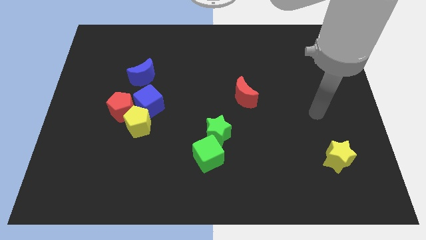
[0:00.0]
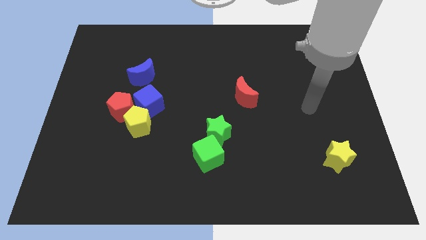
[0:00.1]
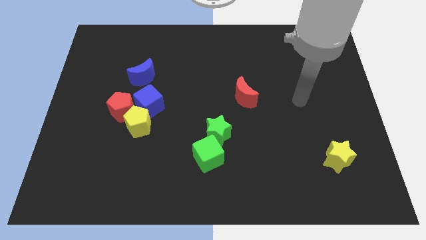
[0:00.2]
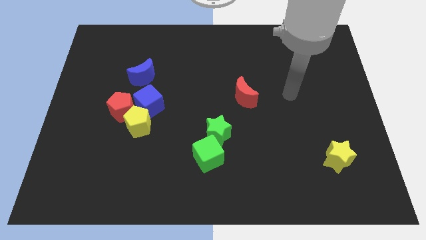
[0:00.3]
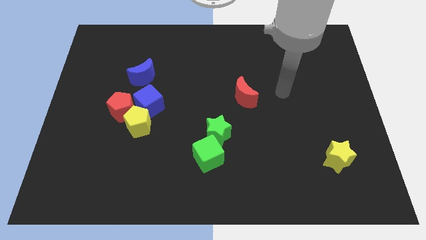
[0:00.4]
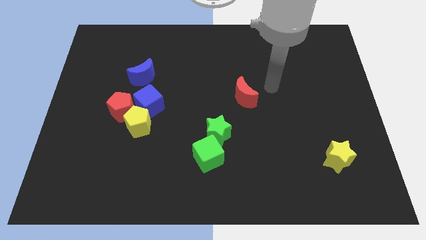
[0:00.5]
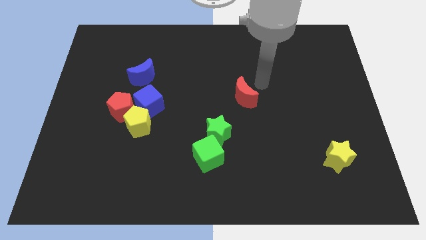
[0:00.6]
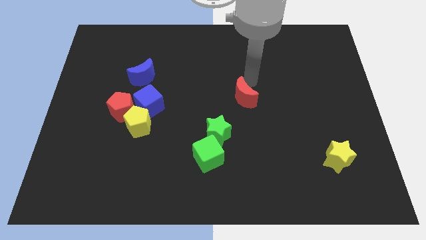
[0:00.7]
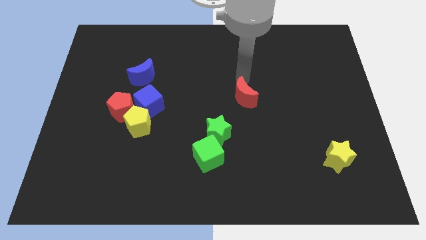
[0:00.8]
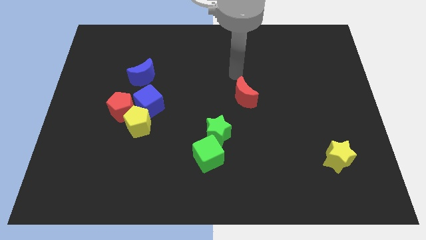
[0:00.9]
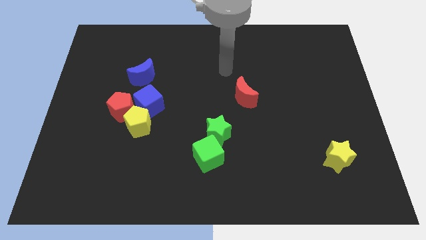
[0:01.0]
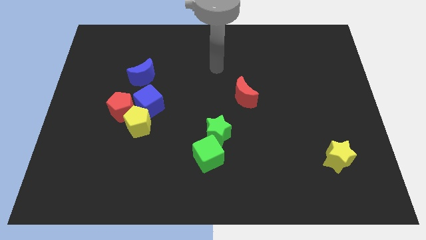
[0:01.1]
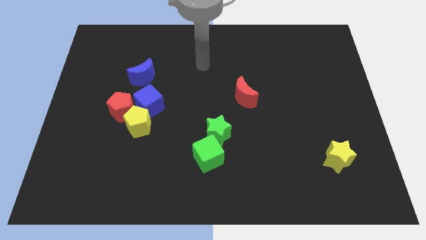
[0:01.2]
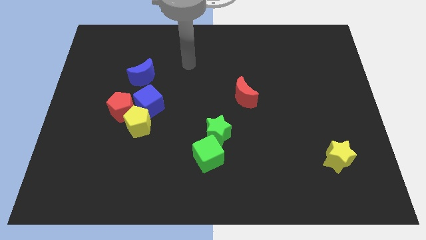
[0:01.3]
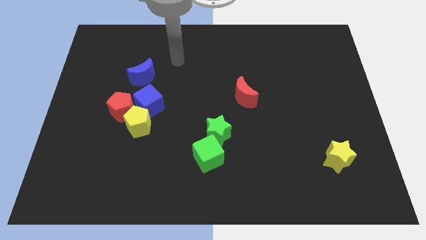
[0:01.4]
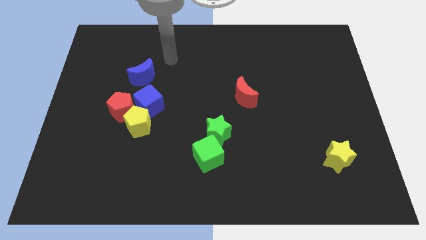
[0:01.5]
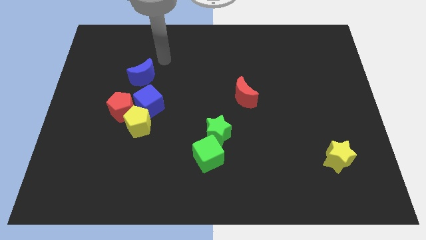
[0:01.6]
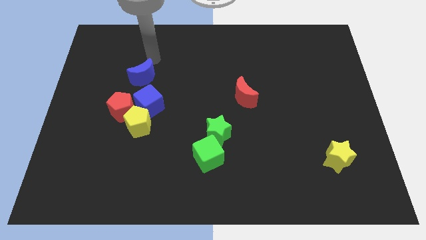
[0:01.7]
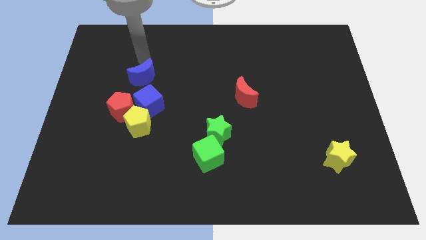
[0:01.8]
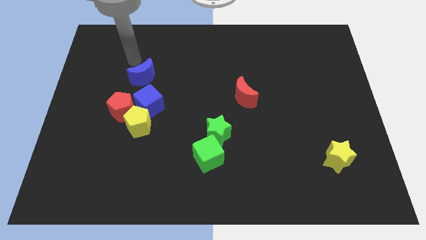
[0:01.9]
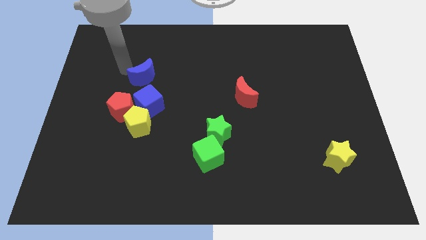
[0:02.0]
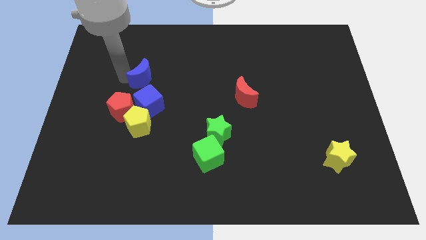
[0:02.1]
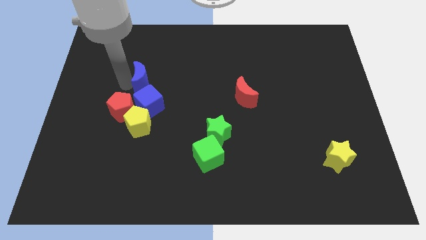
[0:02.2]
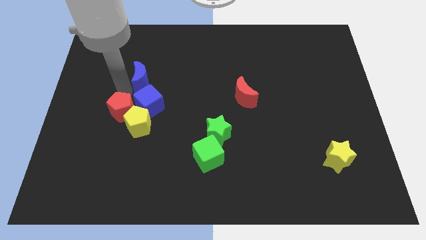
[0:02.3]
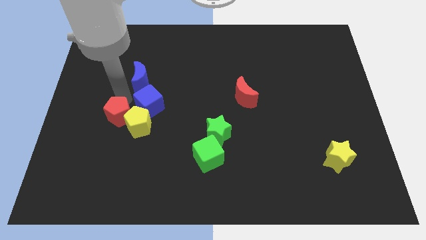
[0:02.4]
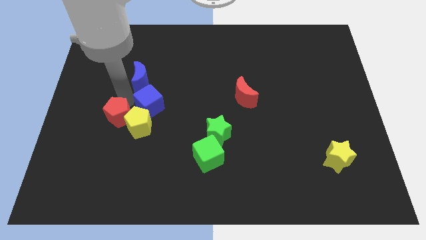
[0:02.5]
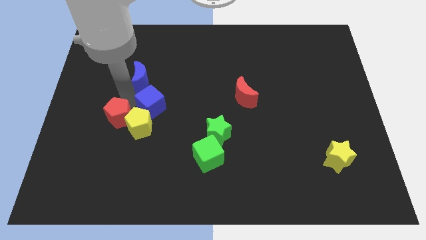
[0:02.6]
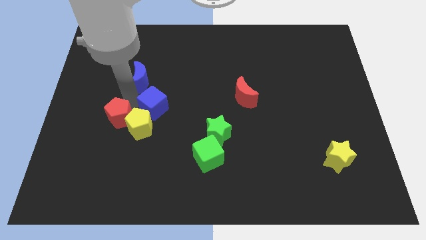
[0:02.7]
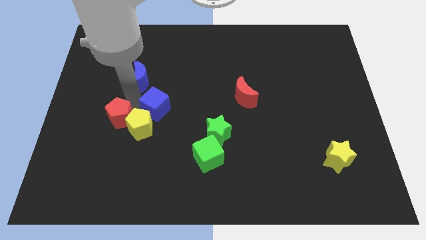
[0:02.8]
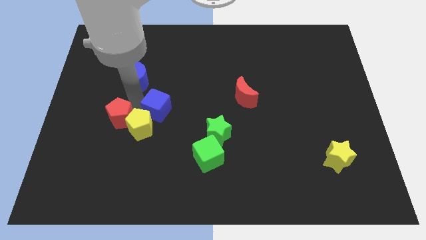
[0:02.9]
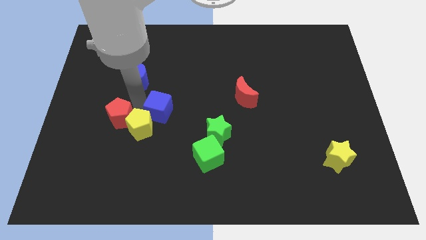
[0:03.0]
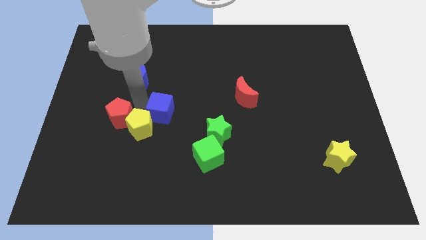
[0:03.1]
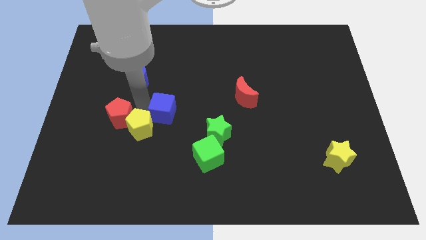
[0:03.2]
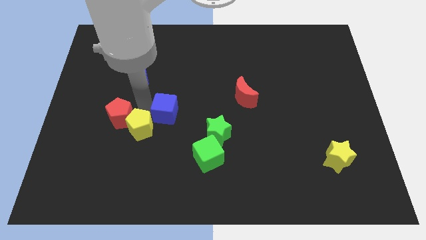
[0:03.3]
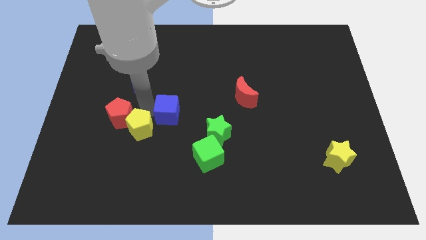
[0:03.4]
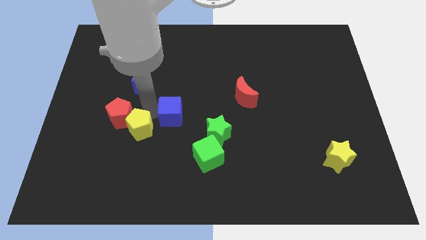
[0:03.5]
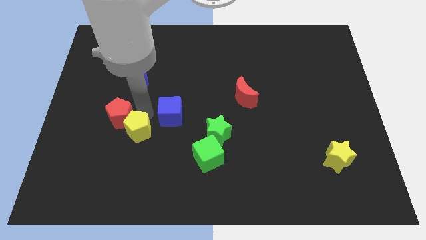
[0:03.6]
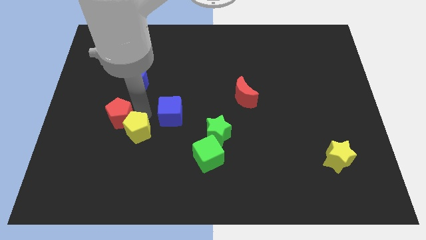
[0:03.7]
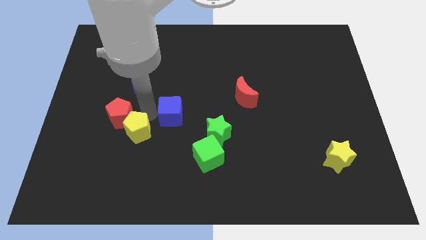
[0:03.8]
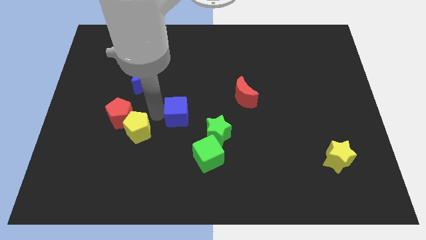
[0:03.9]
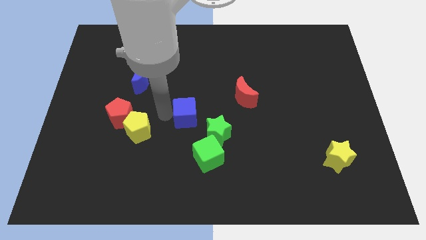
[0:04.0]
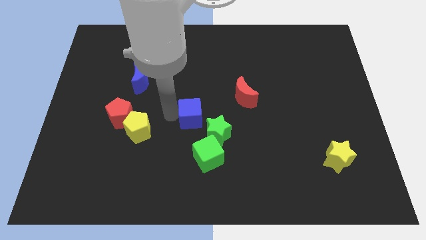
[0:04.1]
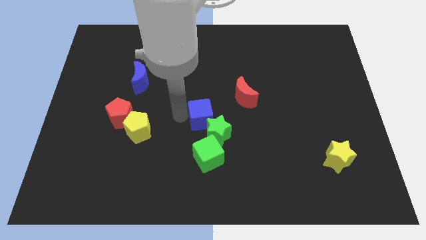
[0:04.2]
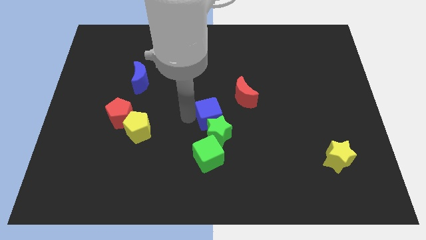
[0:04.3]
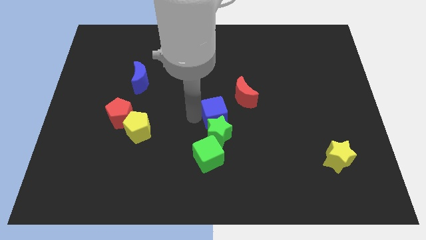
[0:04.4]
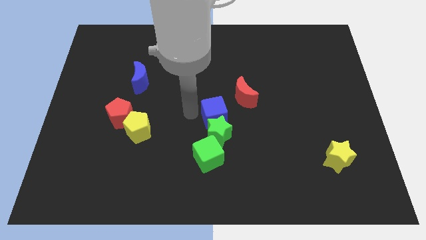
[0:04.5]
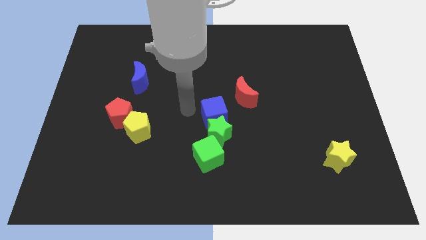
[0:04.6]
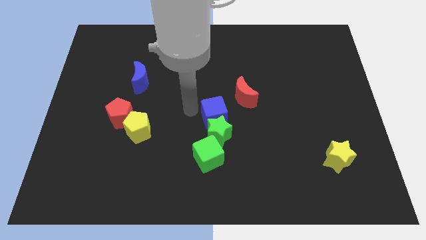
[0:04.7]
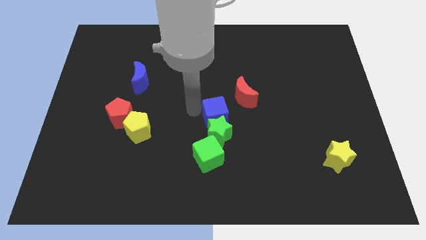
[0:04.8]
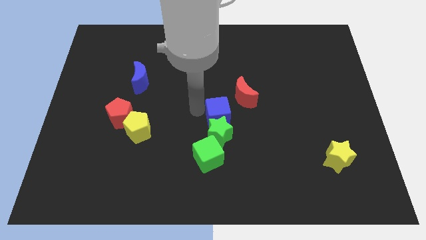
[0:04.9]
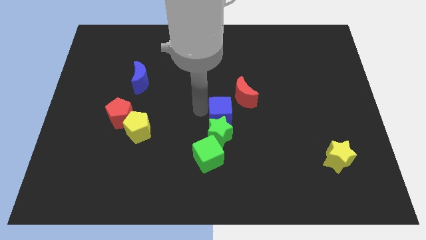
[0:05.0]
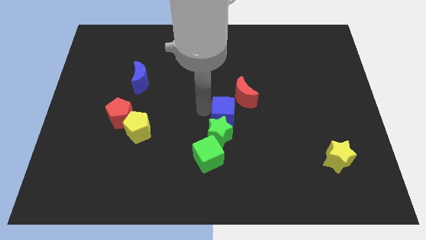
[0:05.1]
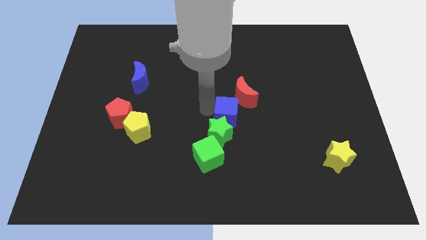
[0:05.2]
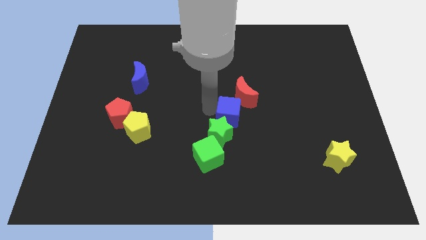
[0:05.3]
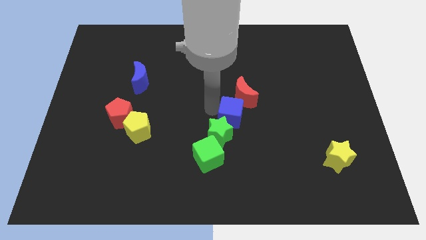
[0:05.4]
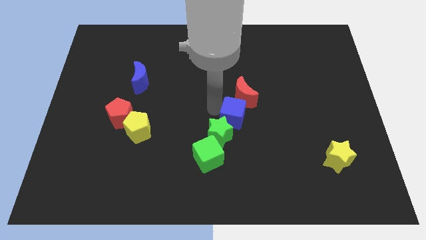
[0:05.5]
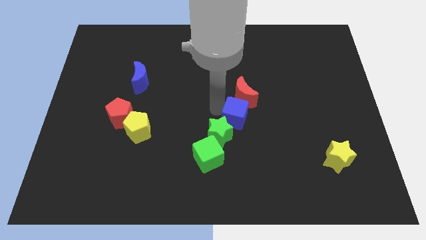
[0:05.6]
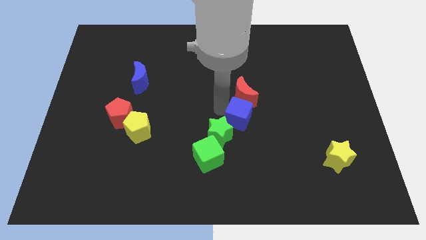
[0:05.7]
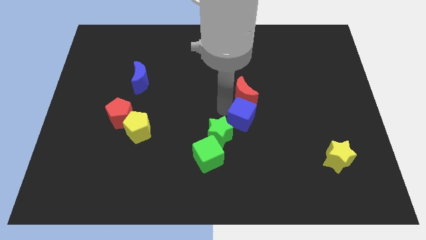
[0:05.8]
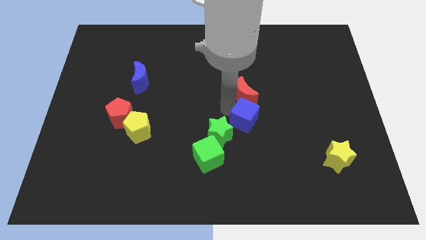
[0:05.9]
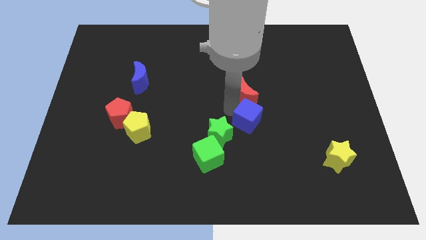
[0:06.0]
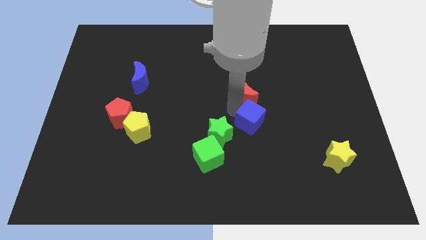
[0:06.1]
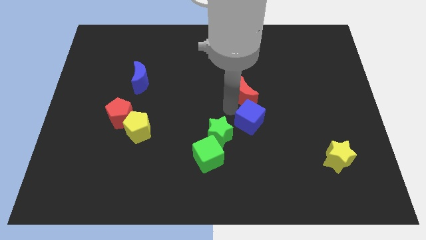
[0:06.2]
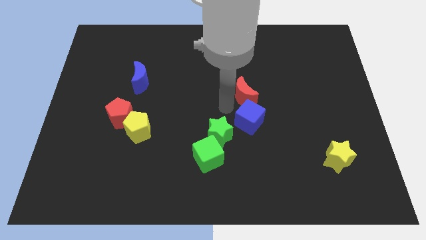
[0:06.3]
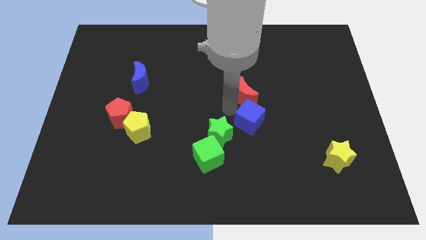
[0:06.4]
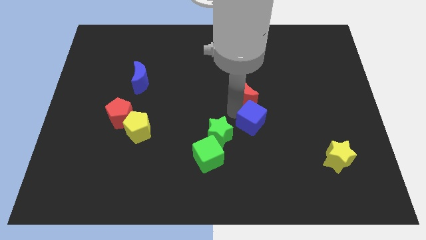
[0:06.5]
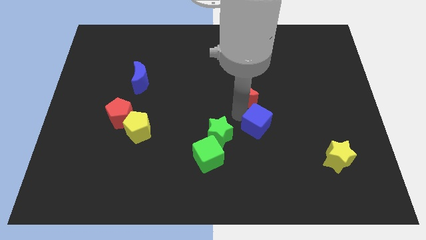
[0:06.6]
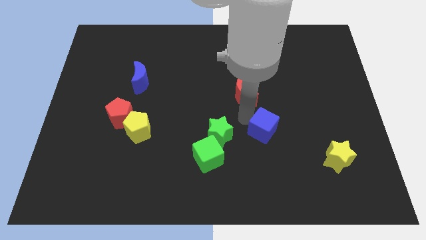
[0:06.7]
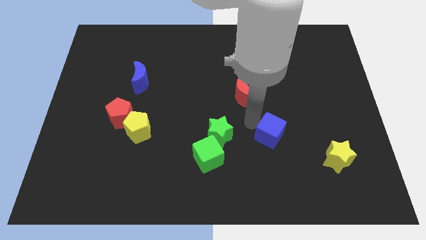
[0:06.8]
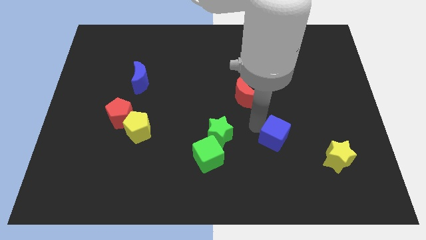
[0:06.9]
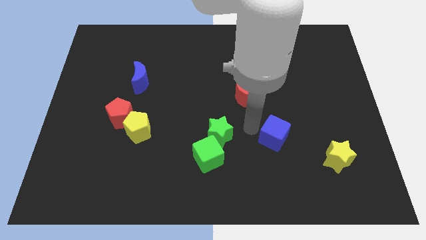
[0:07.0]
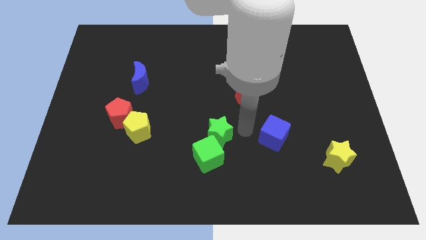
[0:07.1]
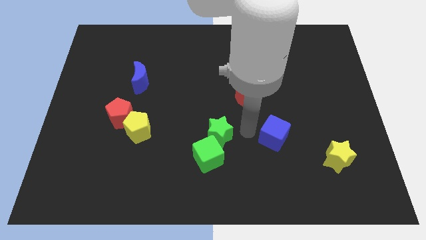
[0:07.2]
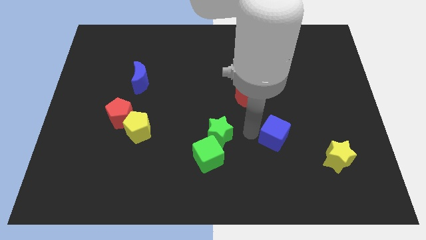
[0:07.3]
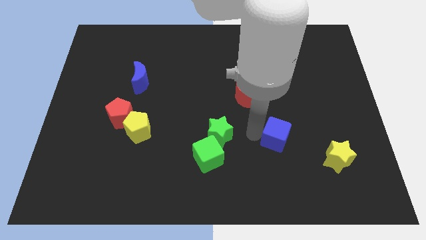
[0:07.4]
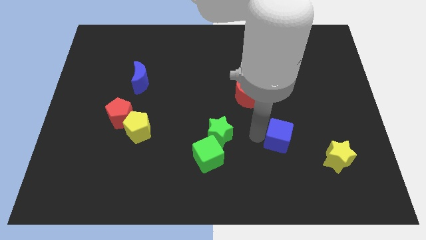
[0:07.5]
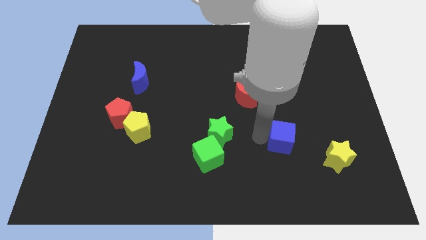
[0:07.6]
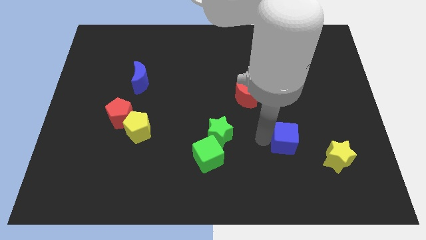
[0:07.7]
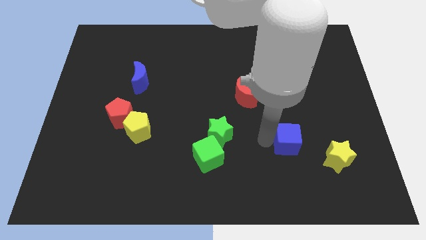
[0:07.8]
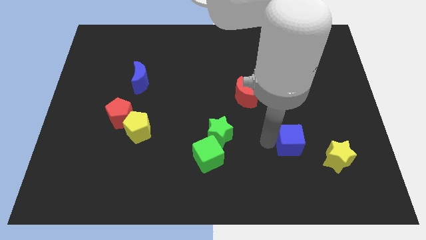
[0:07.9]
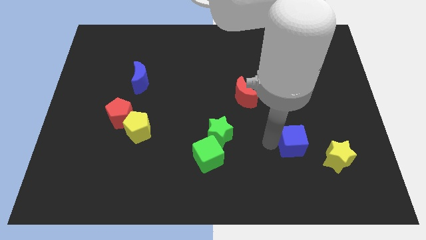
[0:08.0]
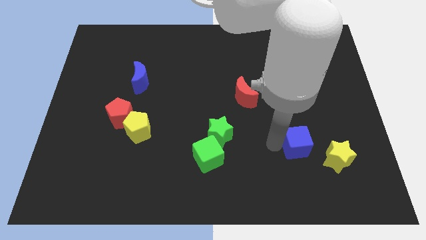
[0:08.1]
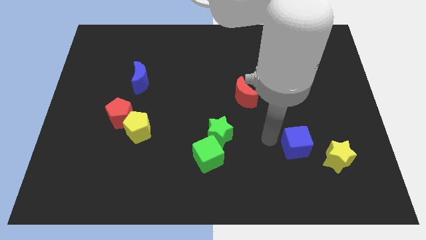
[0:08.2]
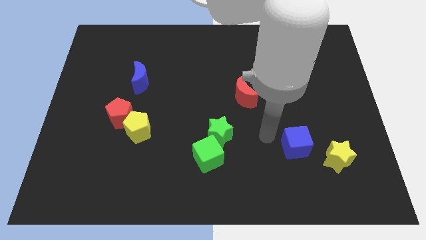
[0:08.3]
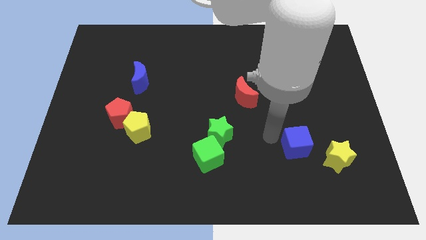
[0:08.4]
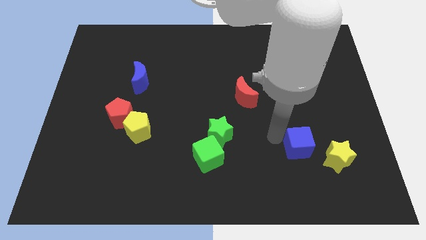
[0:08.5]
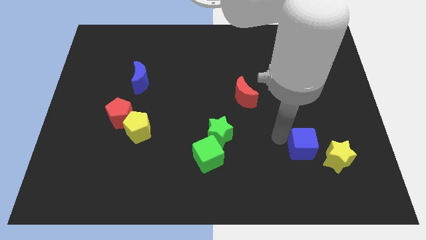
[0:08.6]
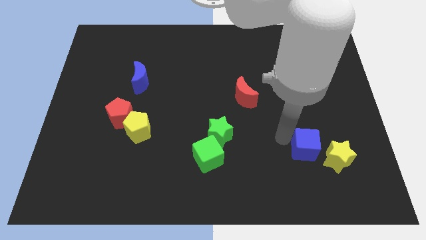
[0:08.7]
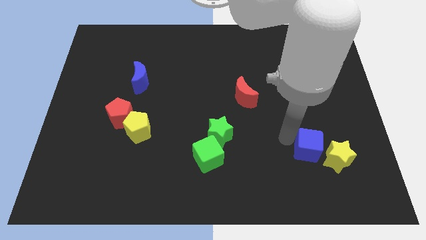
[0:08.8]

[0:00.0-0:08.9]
put the blue cube close to the yellow star
